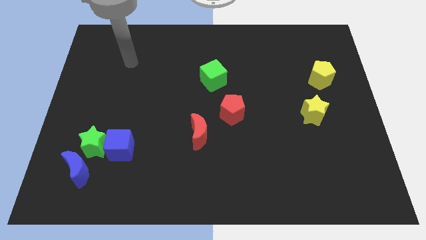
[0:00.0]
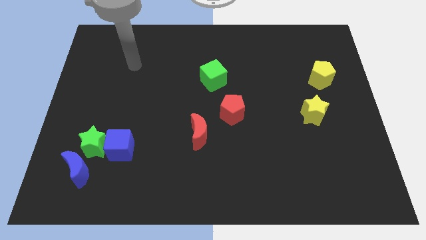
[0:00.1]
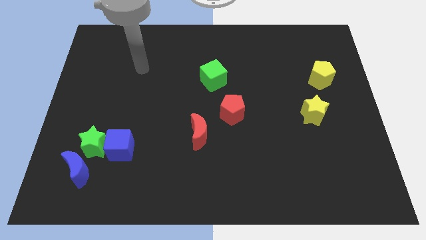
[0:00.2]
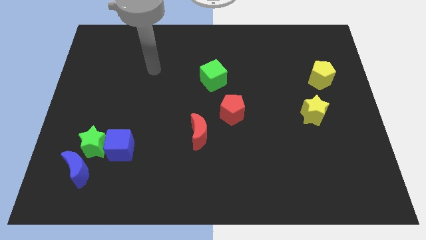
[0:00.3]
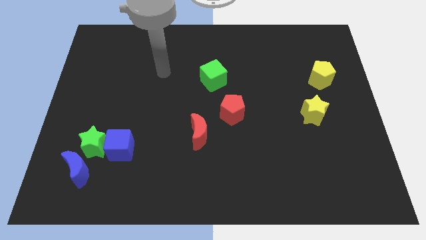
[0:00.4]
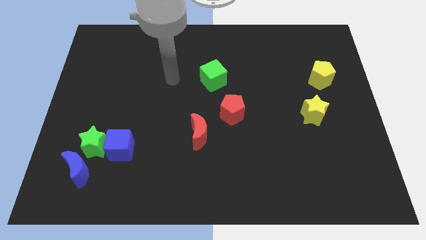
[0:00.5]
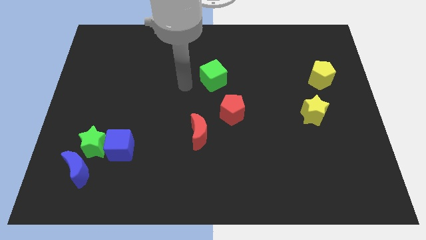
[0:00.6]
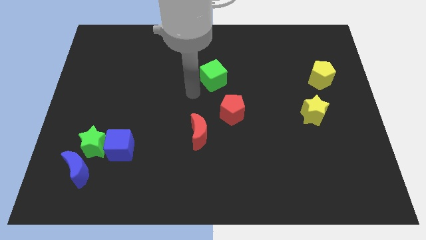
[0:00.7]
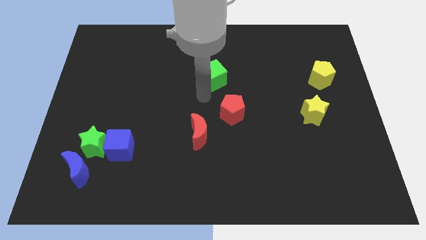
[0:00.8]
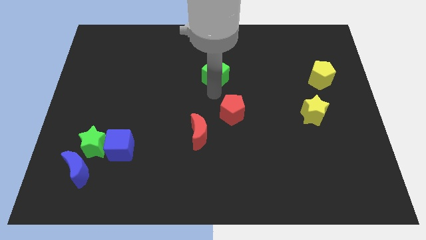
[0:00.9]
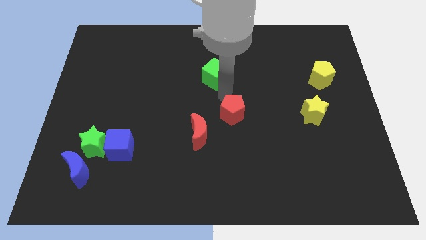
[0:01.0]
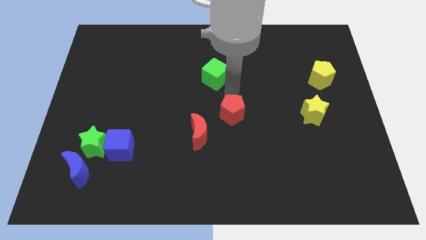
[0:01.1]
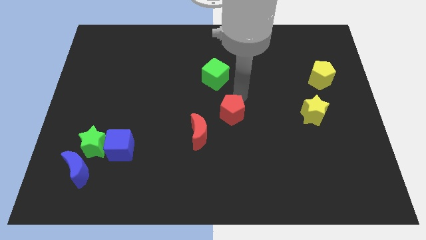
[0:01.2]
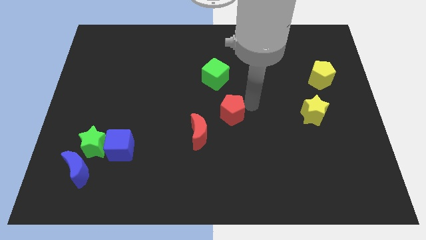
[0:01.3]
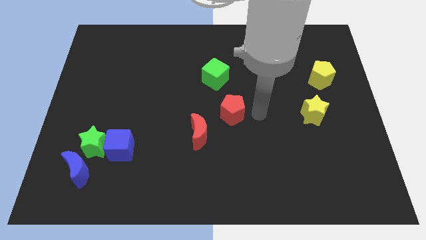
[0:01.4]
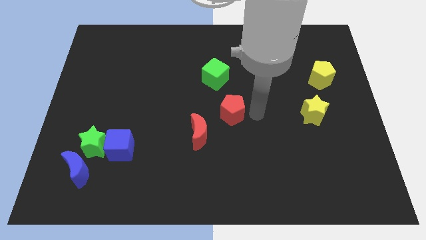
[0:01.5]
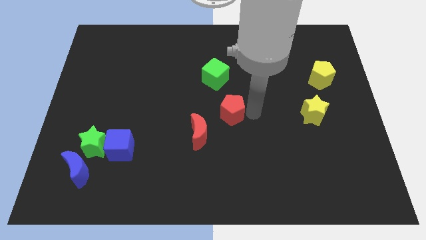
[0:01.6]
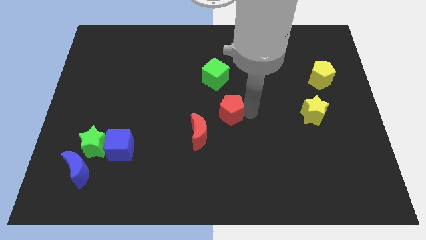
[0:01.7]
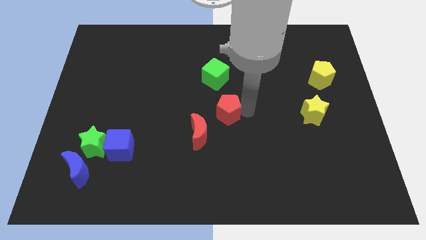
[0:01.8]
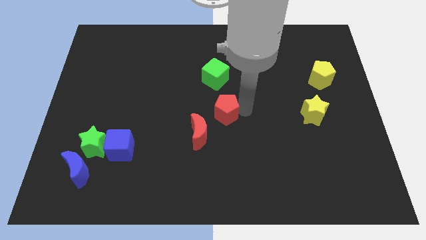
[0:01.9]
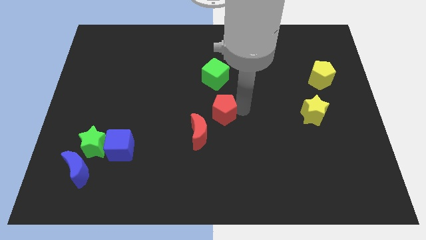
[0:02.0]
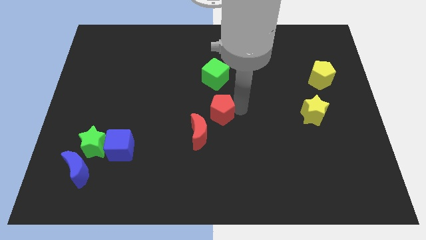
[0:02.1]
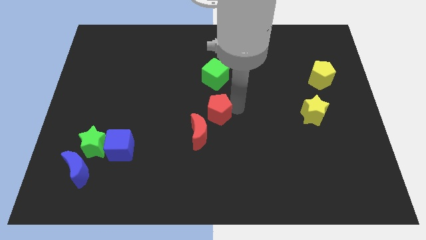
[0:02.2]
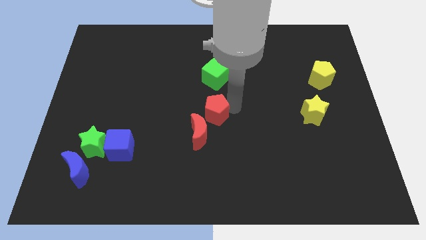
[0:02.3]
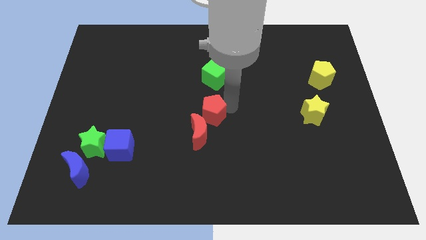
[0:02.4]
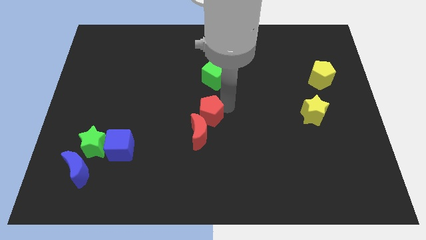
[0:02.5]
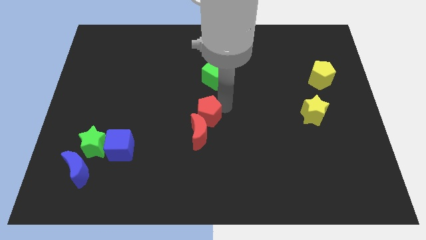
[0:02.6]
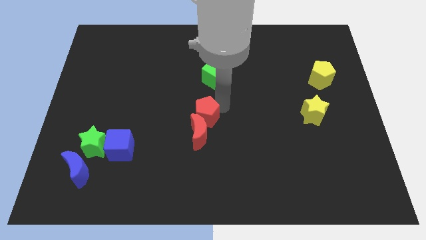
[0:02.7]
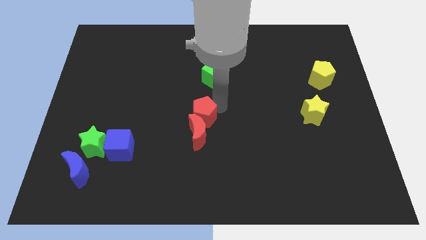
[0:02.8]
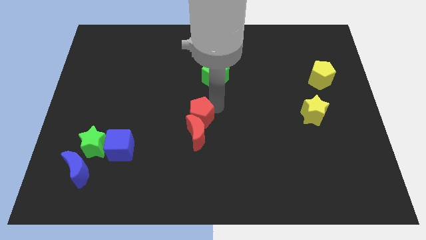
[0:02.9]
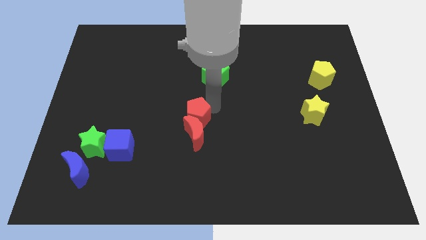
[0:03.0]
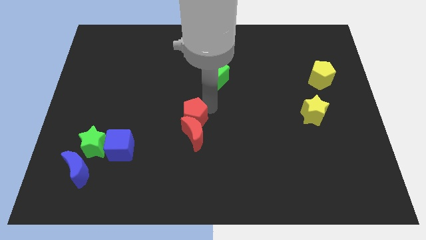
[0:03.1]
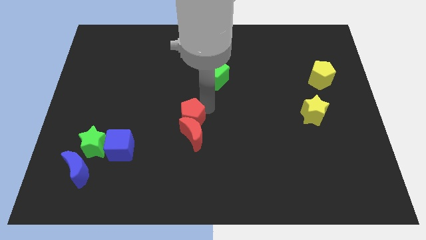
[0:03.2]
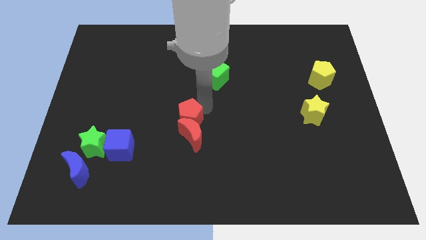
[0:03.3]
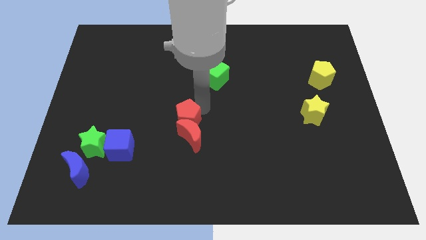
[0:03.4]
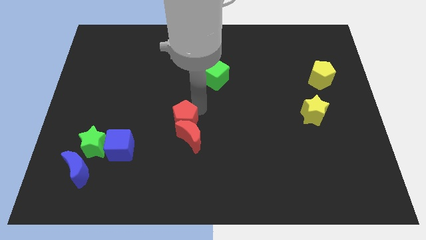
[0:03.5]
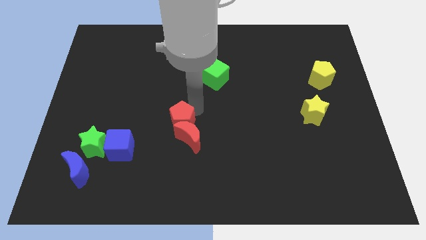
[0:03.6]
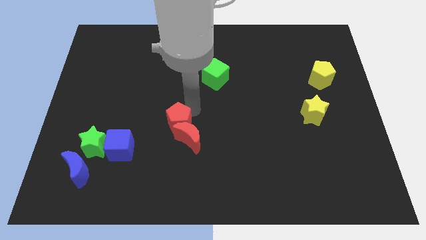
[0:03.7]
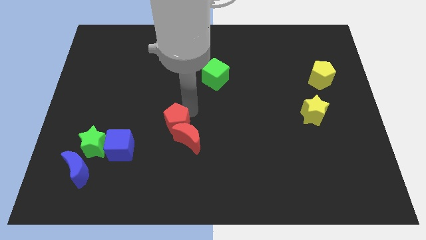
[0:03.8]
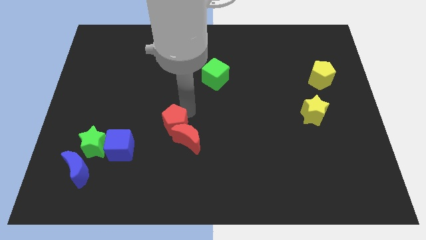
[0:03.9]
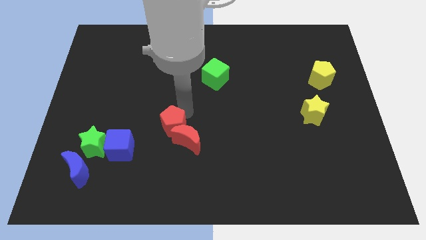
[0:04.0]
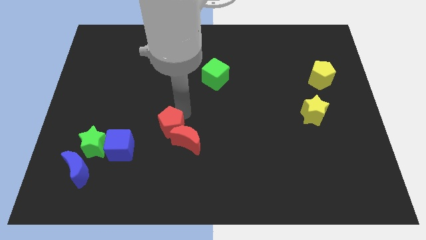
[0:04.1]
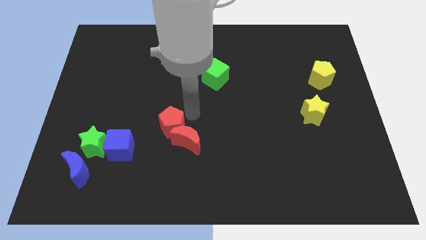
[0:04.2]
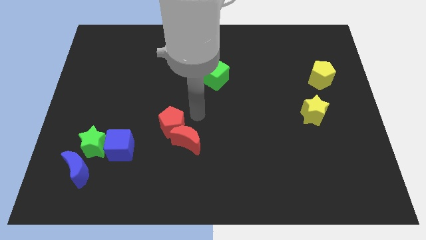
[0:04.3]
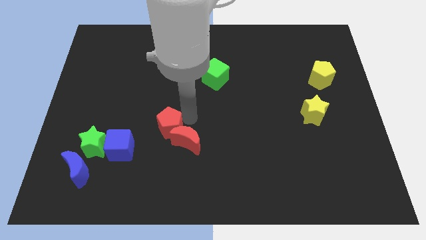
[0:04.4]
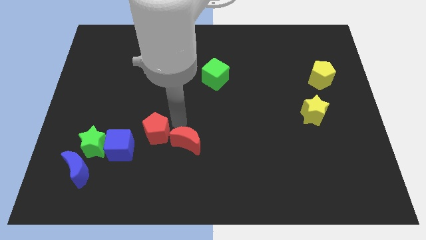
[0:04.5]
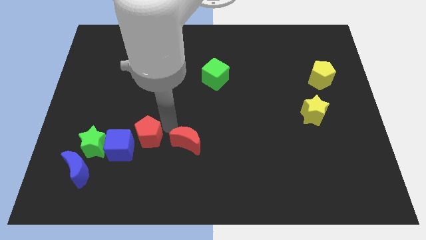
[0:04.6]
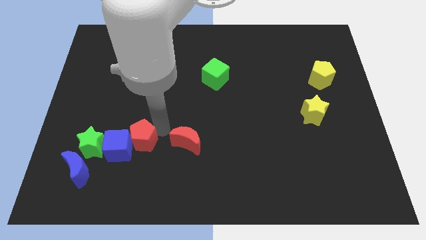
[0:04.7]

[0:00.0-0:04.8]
move the red pentagon towards the blue cube

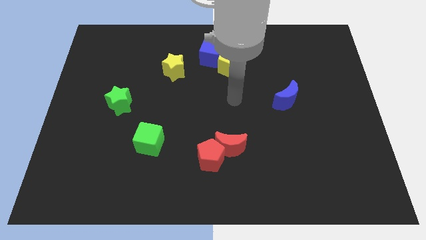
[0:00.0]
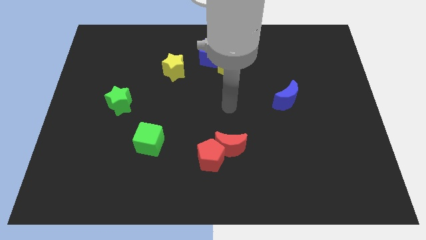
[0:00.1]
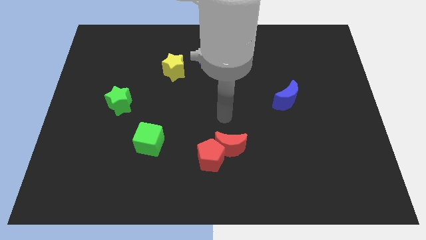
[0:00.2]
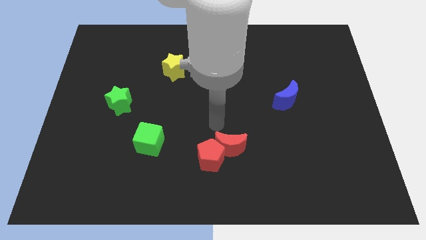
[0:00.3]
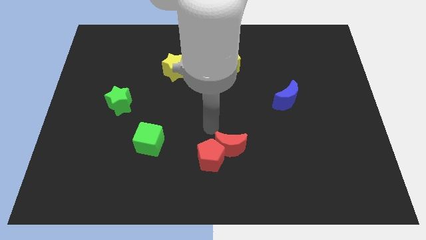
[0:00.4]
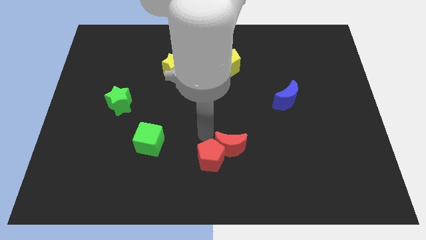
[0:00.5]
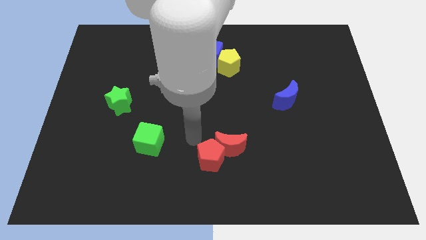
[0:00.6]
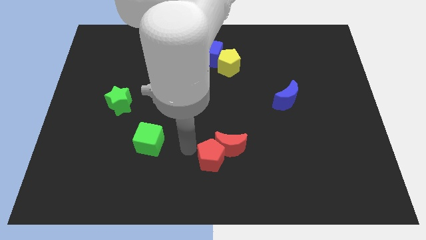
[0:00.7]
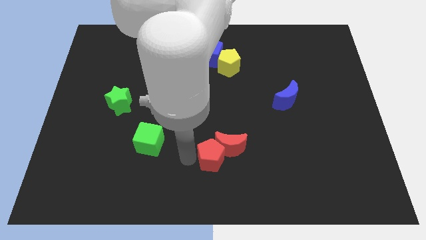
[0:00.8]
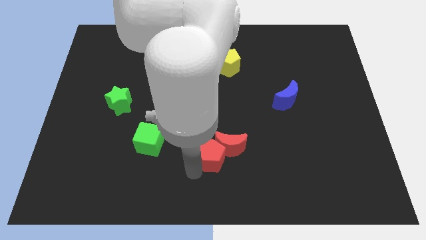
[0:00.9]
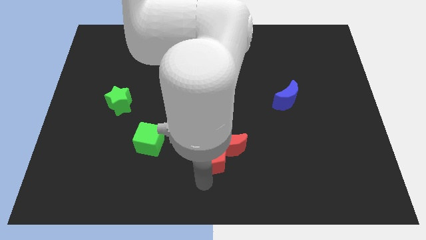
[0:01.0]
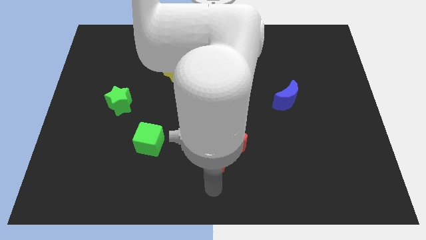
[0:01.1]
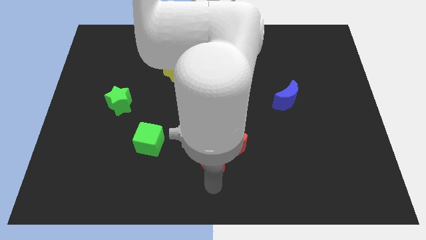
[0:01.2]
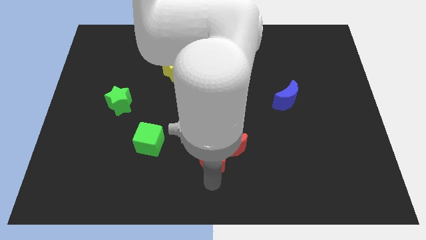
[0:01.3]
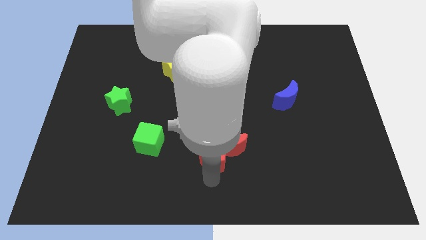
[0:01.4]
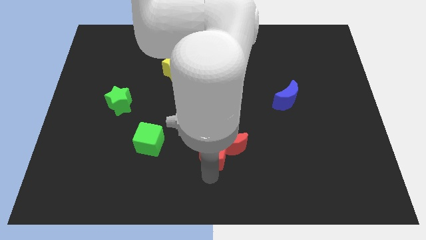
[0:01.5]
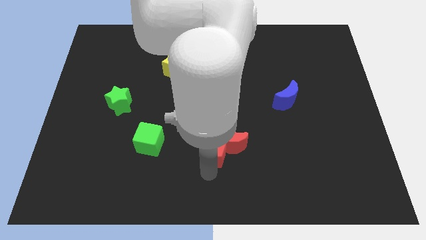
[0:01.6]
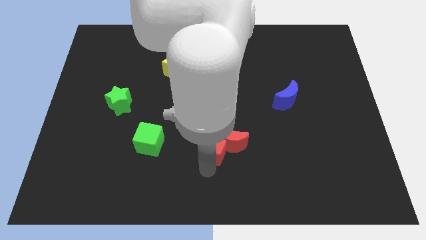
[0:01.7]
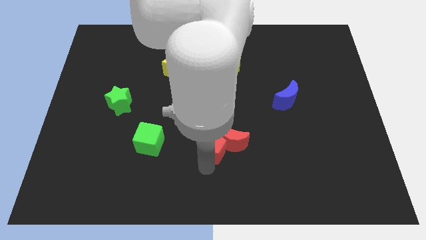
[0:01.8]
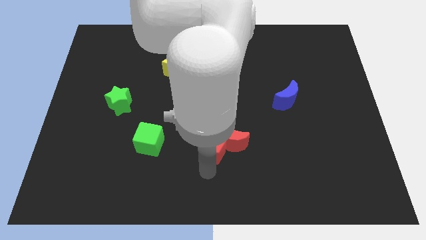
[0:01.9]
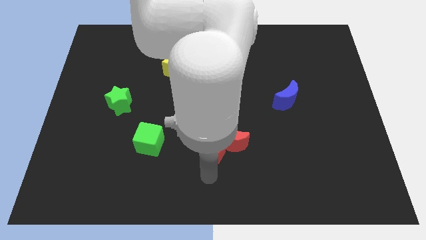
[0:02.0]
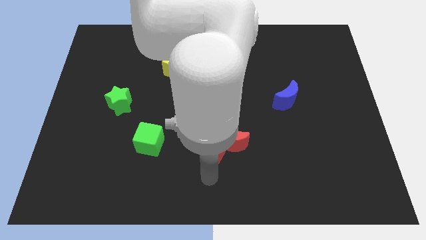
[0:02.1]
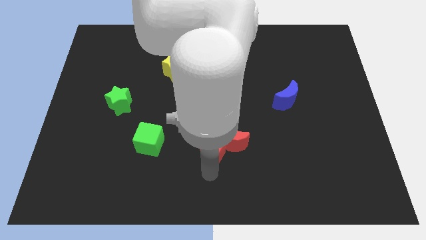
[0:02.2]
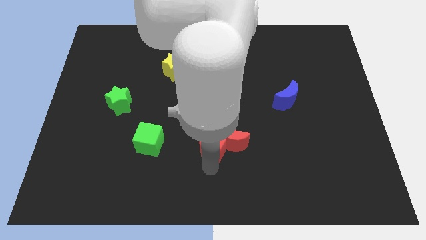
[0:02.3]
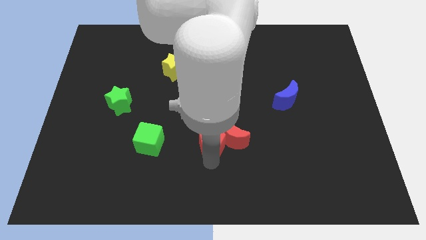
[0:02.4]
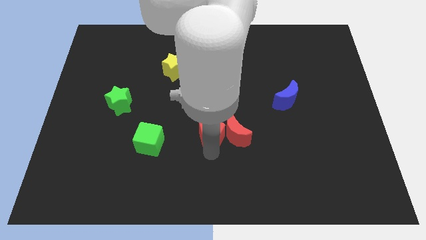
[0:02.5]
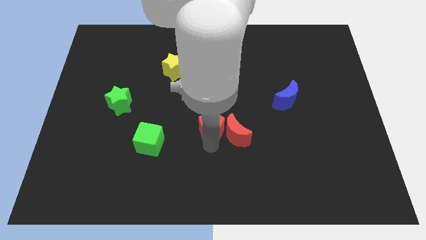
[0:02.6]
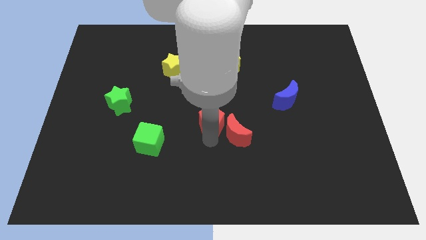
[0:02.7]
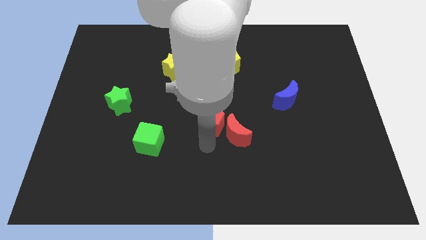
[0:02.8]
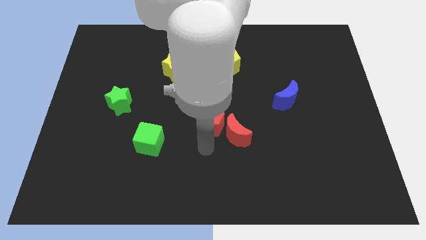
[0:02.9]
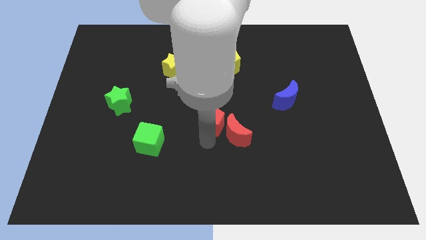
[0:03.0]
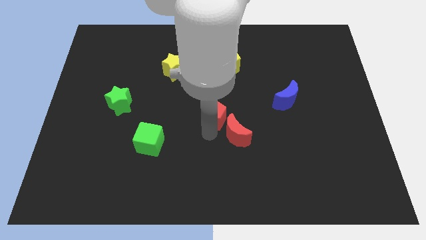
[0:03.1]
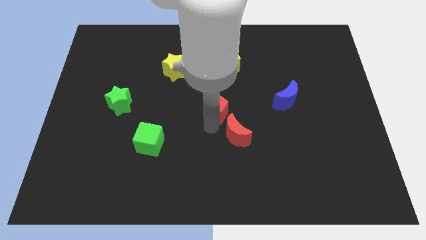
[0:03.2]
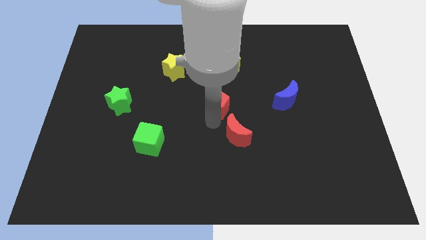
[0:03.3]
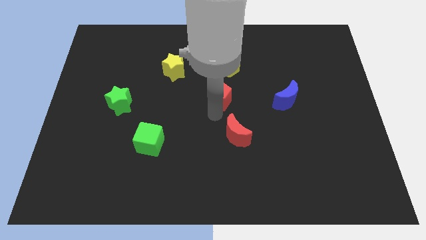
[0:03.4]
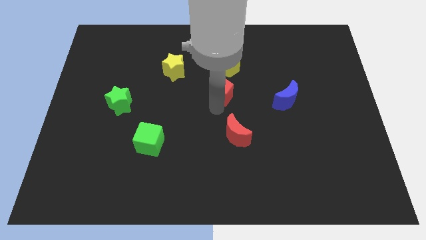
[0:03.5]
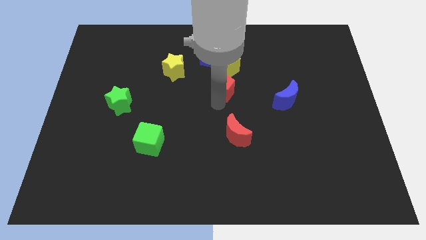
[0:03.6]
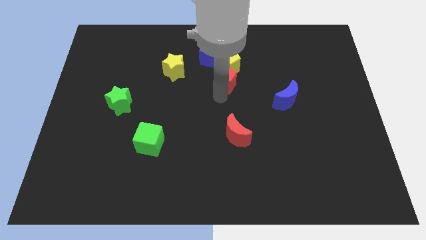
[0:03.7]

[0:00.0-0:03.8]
slide the red pentagon close to the yellow pentagon
